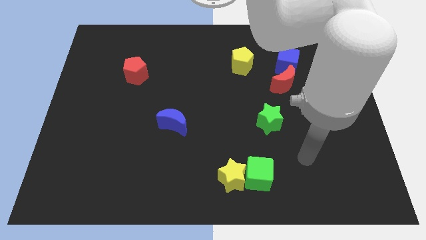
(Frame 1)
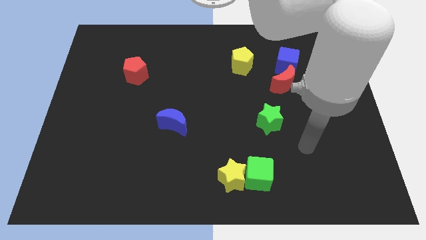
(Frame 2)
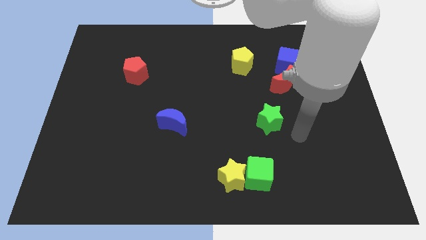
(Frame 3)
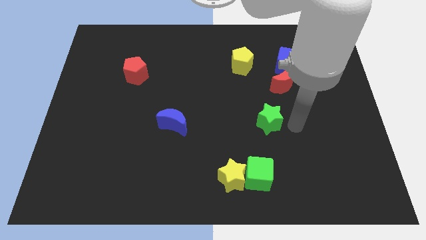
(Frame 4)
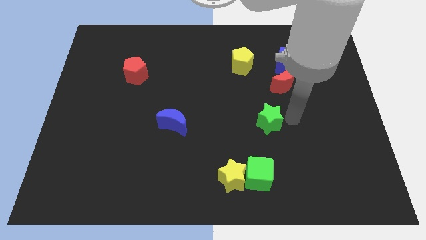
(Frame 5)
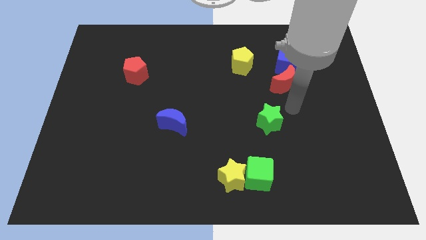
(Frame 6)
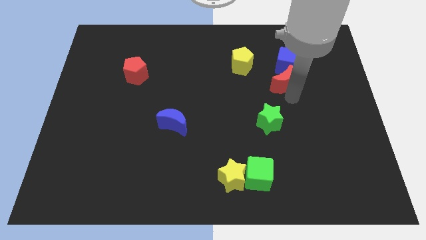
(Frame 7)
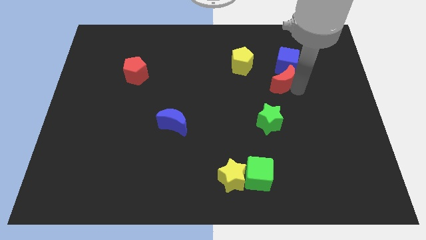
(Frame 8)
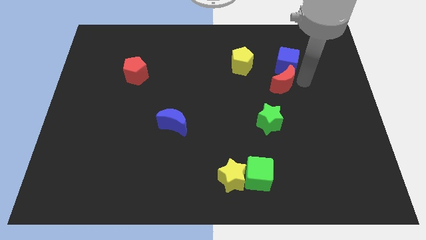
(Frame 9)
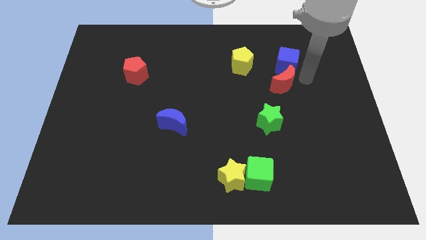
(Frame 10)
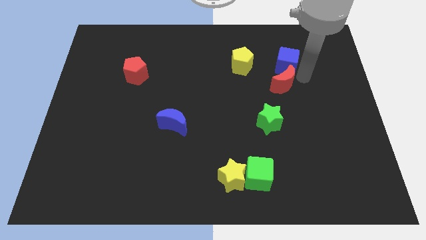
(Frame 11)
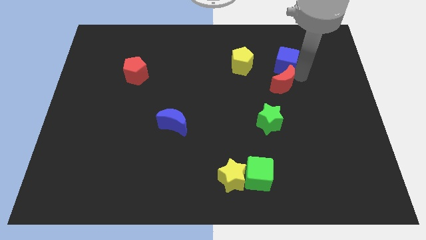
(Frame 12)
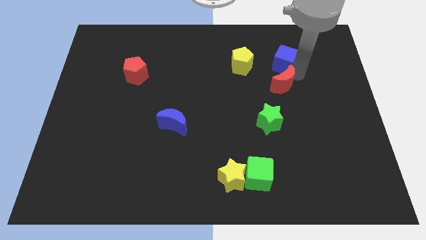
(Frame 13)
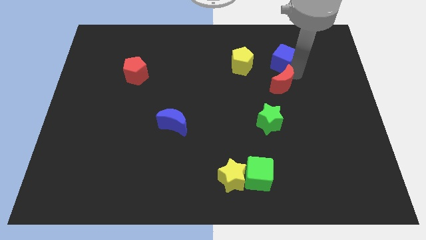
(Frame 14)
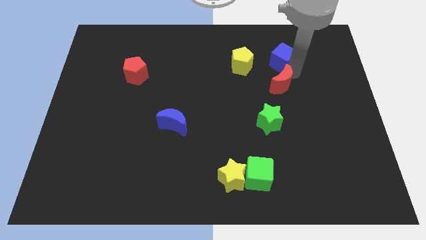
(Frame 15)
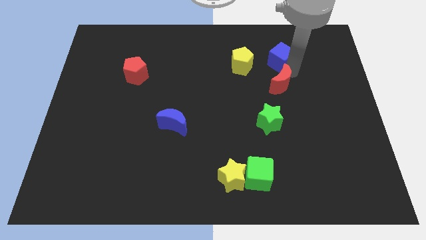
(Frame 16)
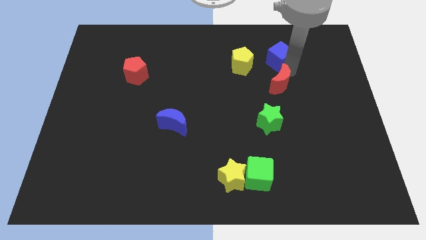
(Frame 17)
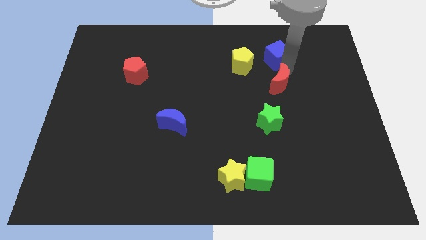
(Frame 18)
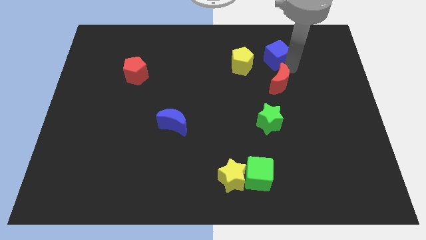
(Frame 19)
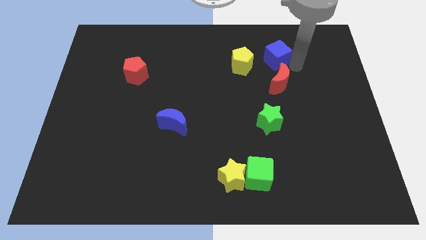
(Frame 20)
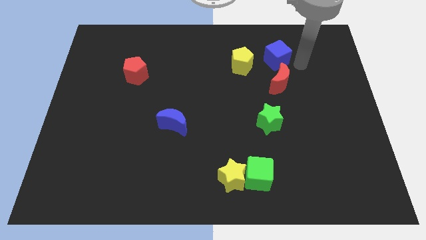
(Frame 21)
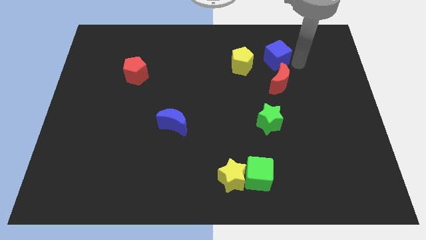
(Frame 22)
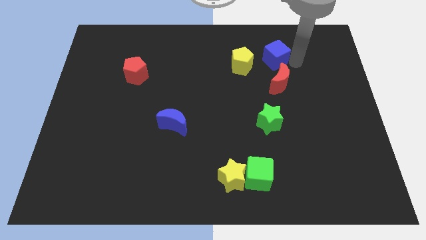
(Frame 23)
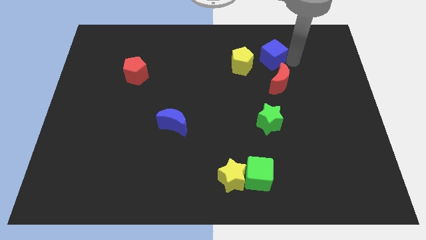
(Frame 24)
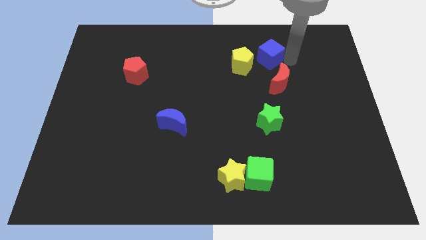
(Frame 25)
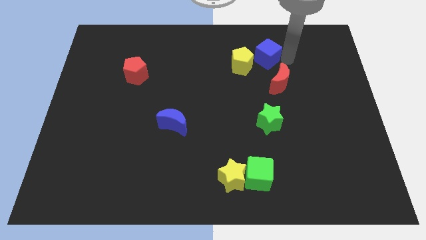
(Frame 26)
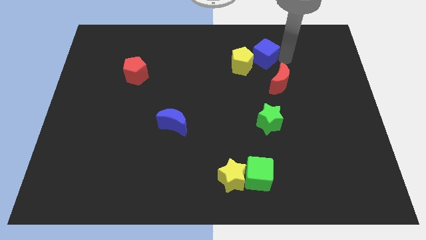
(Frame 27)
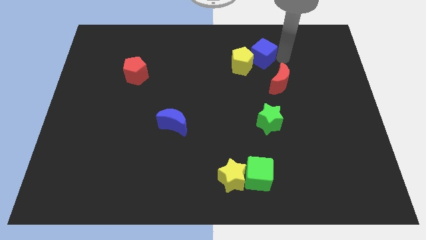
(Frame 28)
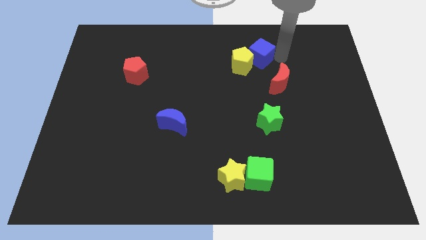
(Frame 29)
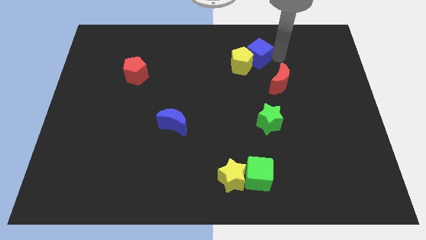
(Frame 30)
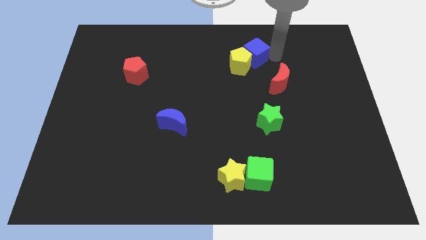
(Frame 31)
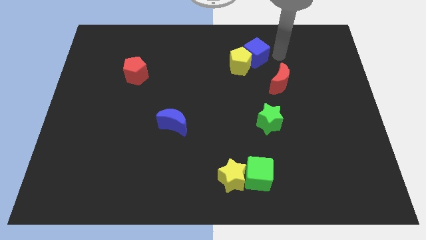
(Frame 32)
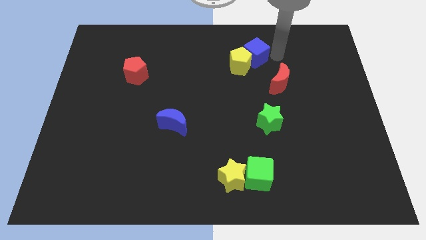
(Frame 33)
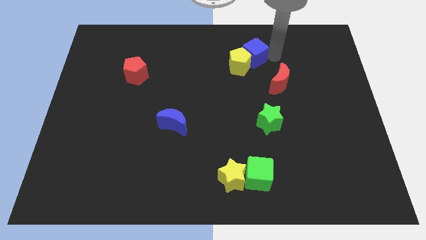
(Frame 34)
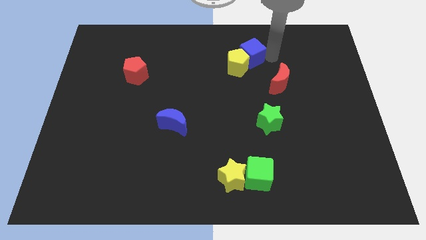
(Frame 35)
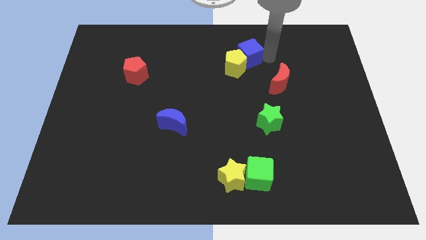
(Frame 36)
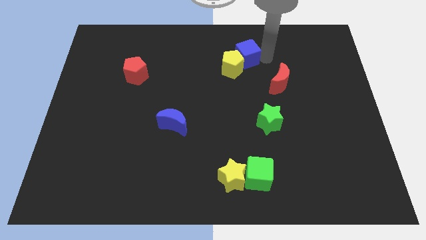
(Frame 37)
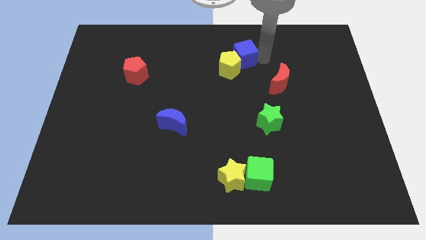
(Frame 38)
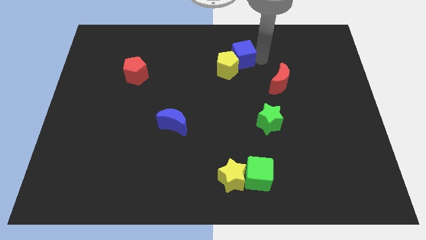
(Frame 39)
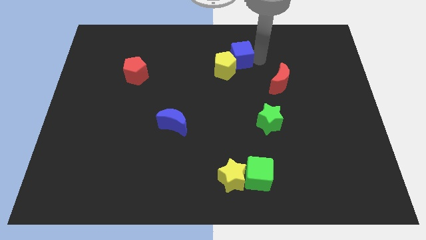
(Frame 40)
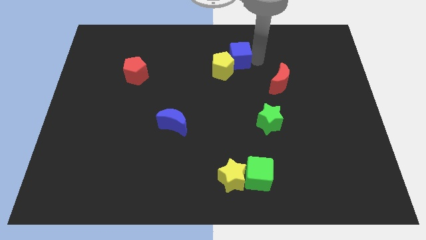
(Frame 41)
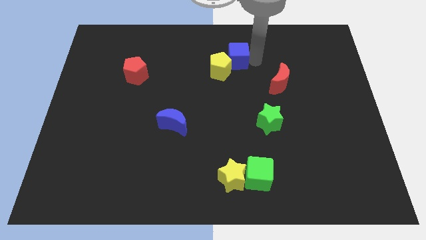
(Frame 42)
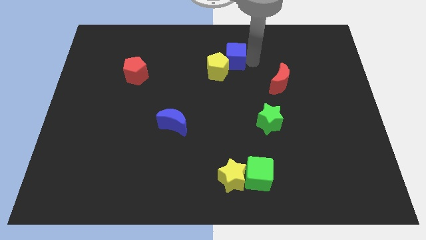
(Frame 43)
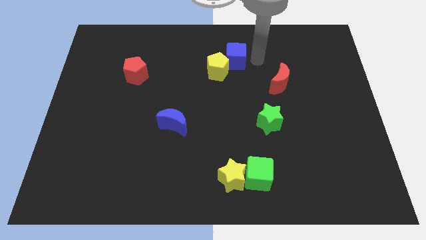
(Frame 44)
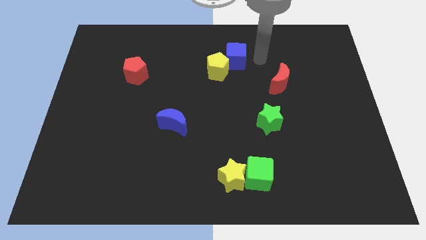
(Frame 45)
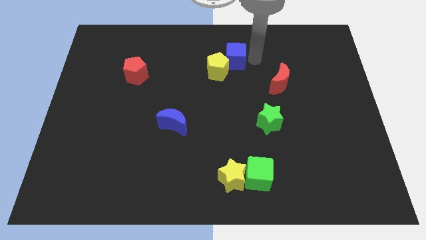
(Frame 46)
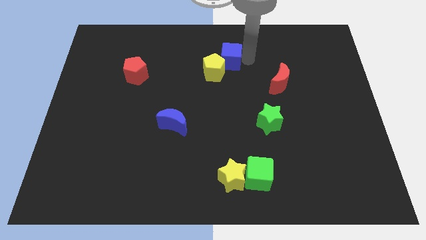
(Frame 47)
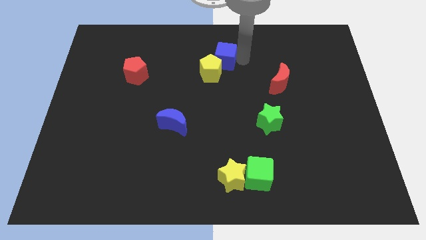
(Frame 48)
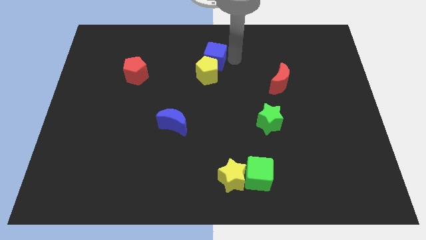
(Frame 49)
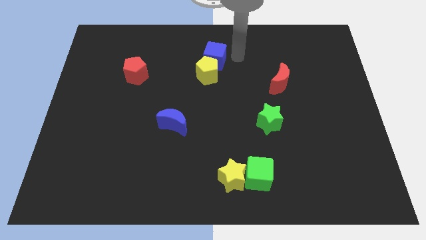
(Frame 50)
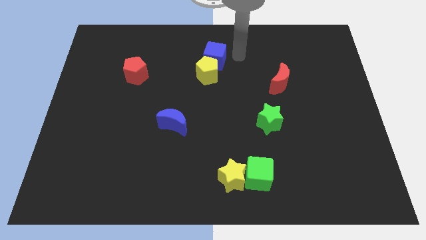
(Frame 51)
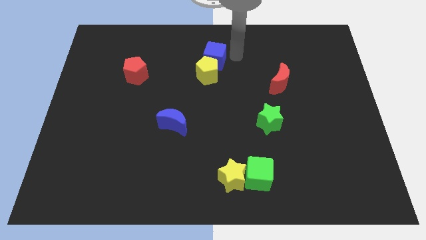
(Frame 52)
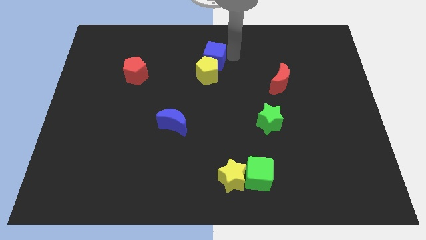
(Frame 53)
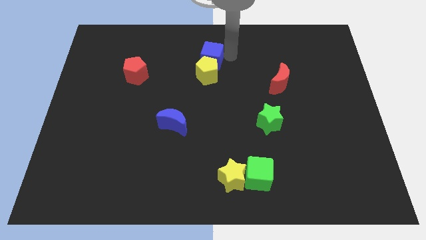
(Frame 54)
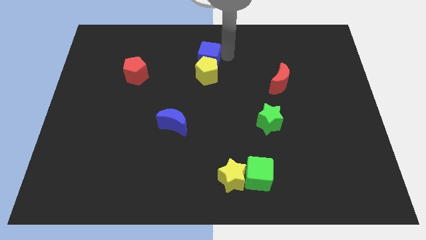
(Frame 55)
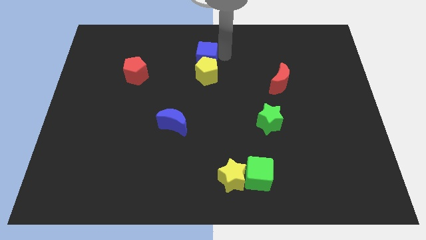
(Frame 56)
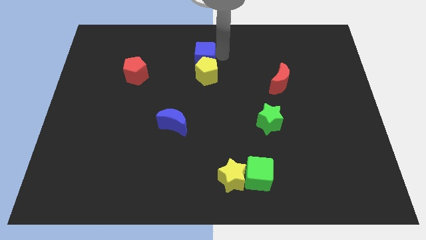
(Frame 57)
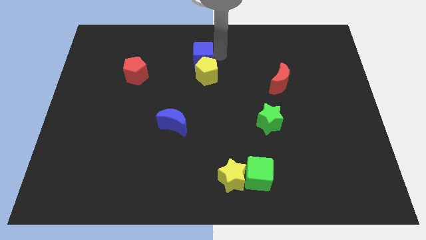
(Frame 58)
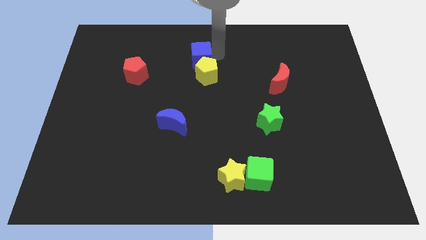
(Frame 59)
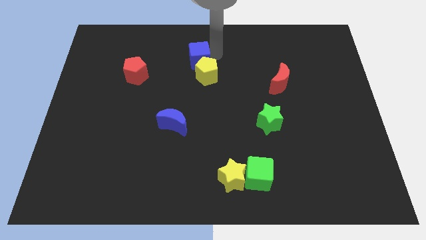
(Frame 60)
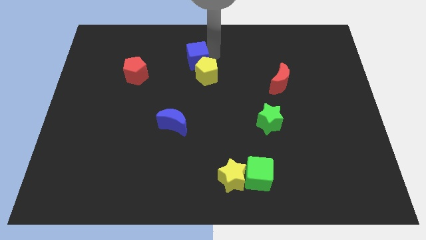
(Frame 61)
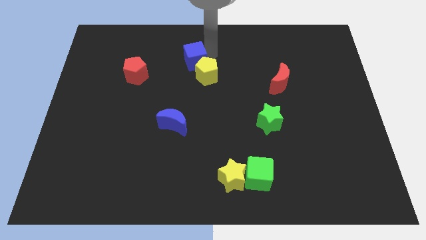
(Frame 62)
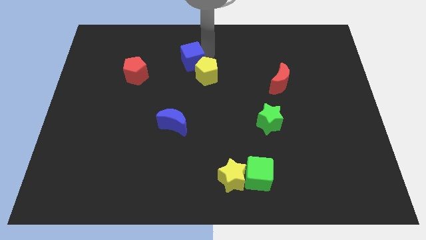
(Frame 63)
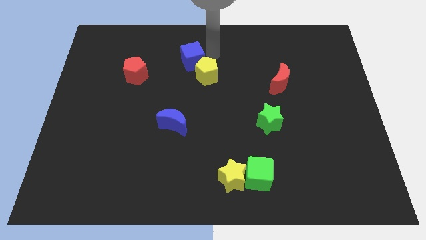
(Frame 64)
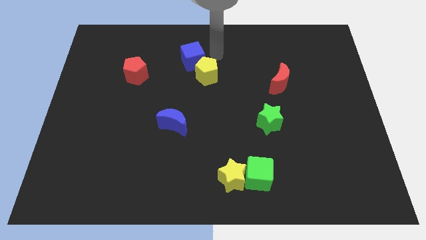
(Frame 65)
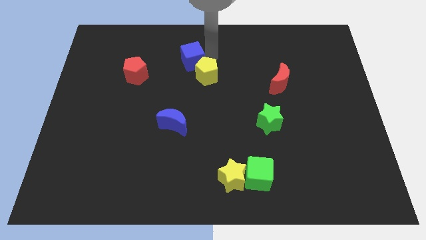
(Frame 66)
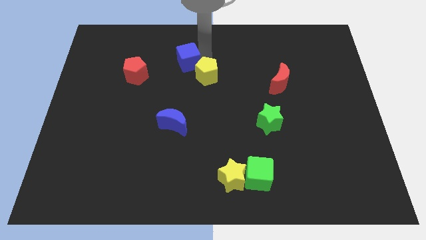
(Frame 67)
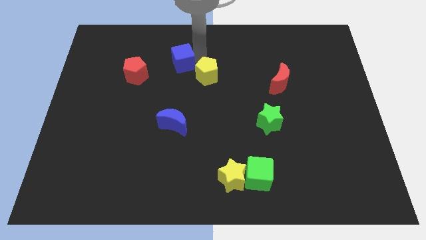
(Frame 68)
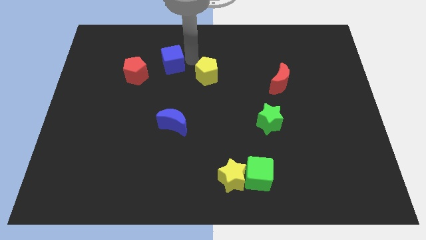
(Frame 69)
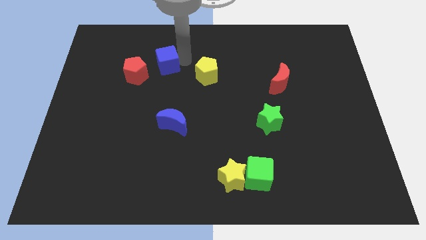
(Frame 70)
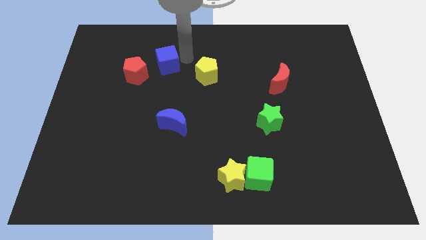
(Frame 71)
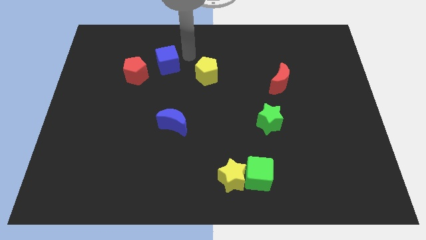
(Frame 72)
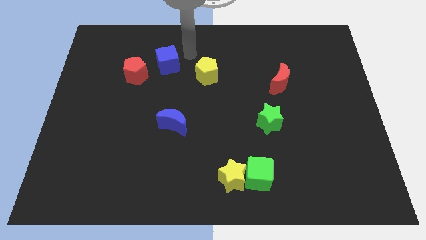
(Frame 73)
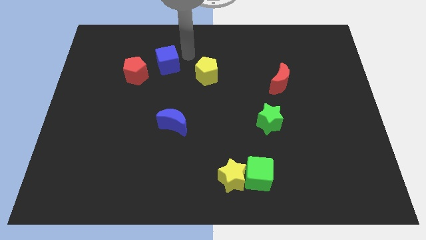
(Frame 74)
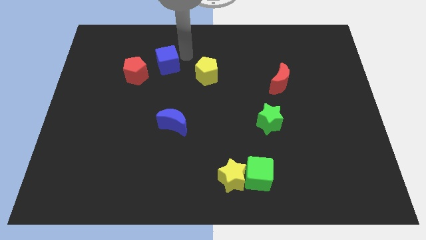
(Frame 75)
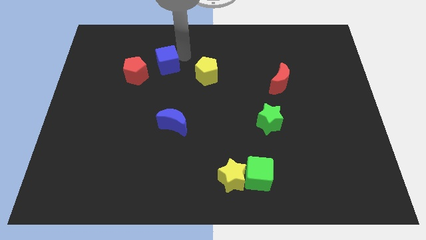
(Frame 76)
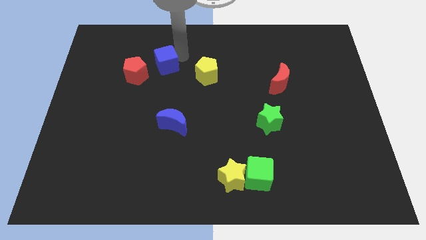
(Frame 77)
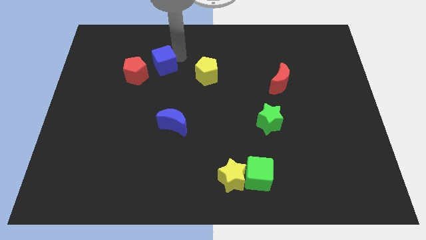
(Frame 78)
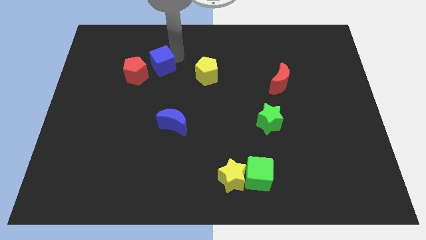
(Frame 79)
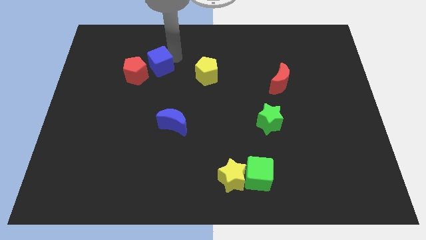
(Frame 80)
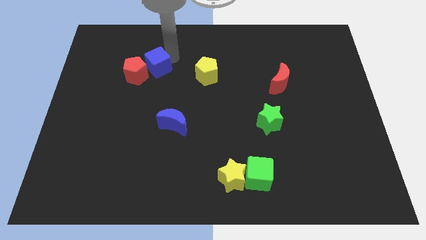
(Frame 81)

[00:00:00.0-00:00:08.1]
move the blue cube close to the red pentagon
